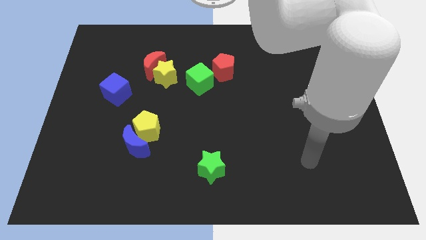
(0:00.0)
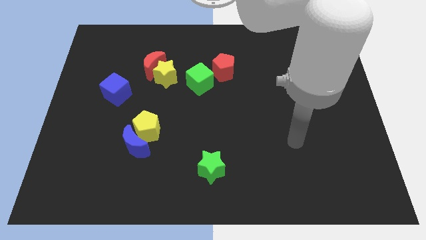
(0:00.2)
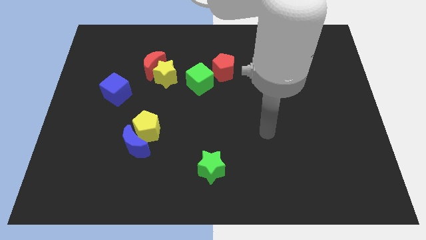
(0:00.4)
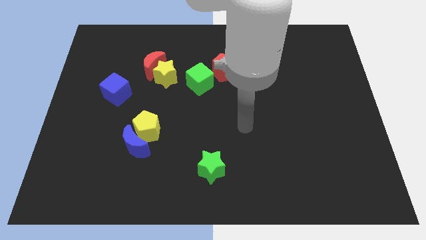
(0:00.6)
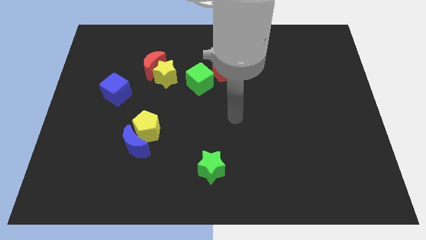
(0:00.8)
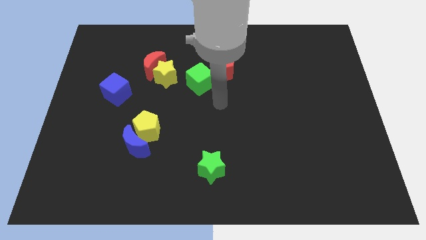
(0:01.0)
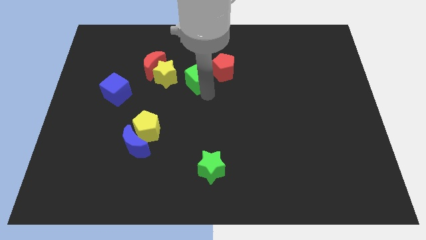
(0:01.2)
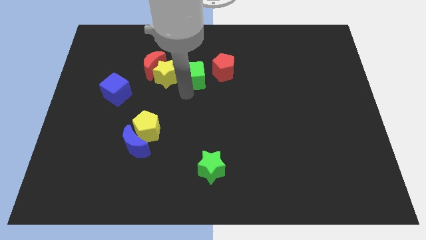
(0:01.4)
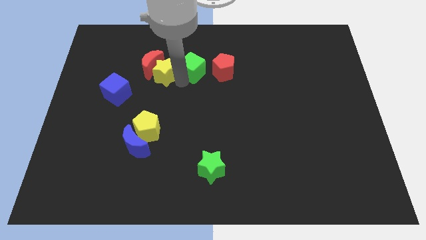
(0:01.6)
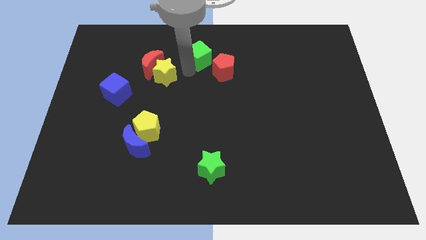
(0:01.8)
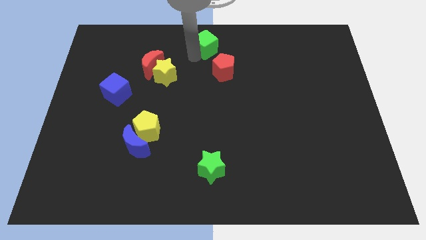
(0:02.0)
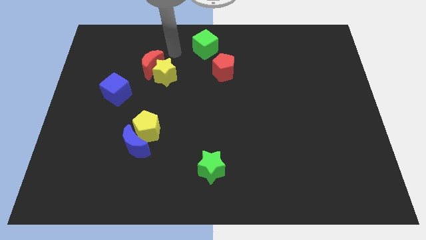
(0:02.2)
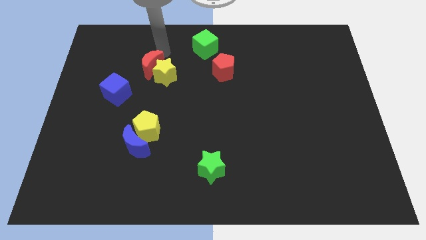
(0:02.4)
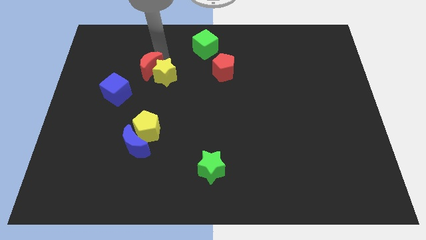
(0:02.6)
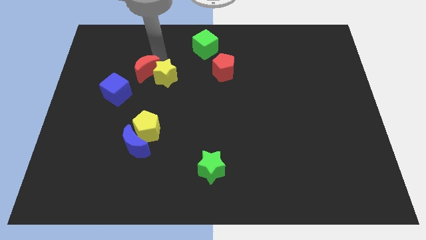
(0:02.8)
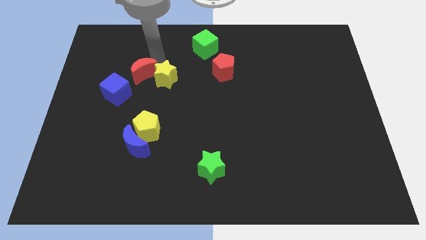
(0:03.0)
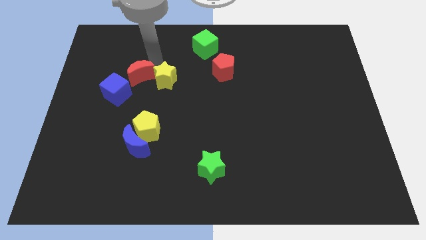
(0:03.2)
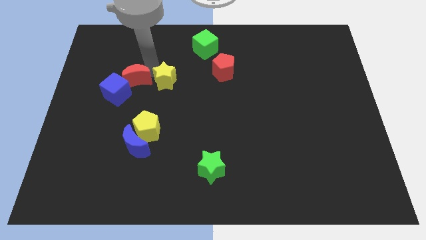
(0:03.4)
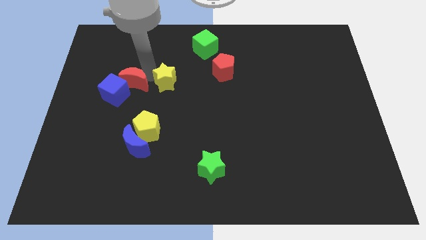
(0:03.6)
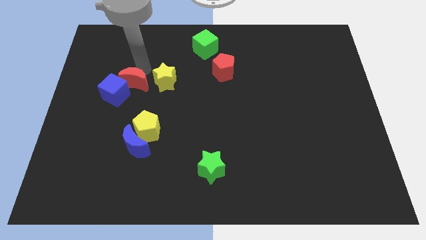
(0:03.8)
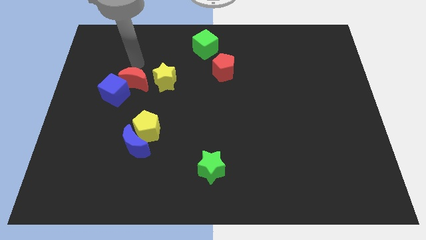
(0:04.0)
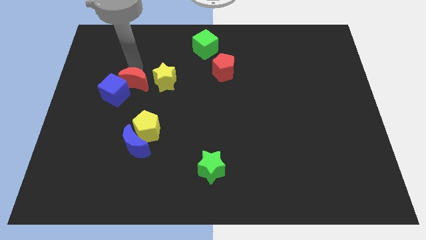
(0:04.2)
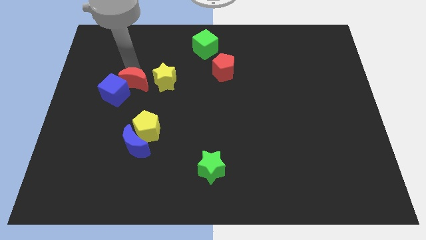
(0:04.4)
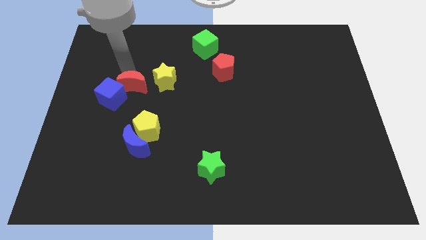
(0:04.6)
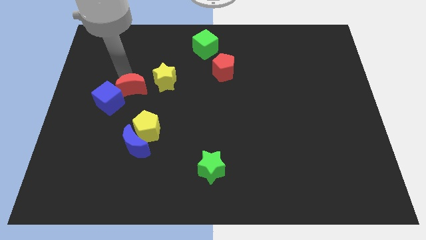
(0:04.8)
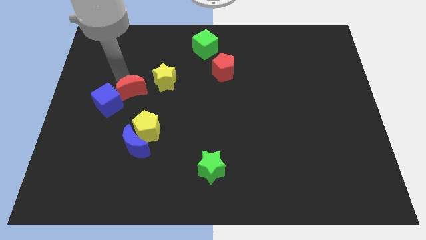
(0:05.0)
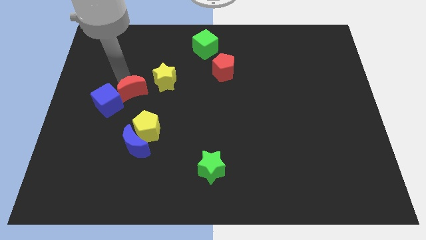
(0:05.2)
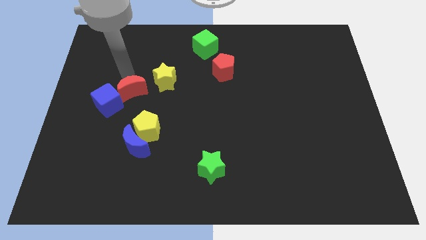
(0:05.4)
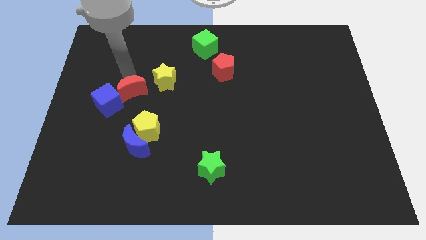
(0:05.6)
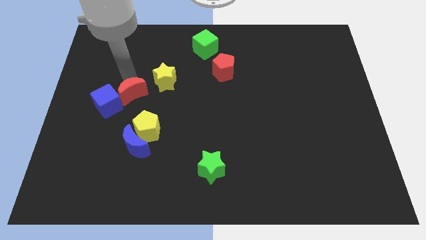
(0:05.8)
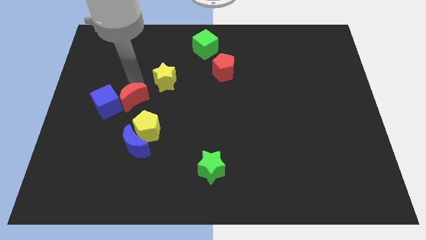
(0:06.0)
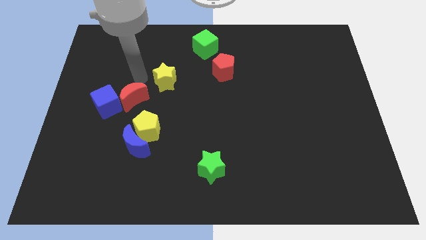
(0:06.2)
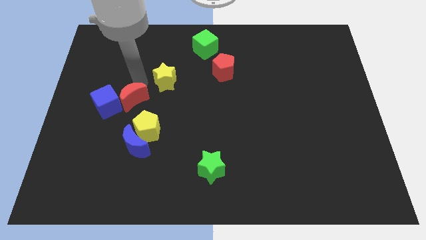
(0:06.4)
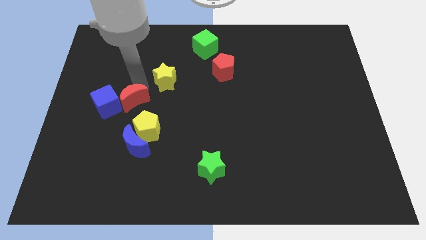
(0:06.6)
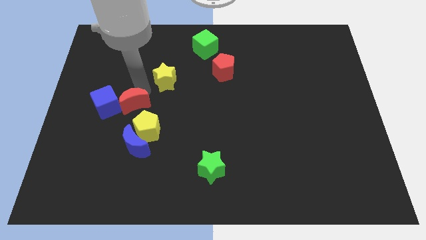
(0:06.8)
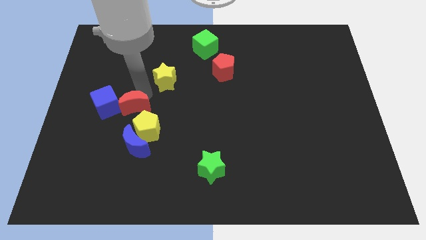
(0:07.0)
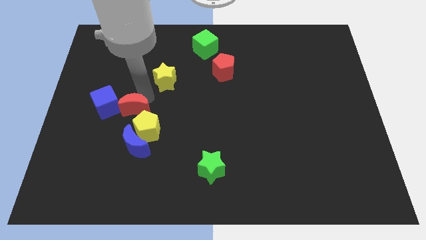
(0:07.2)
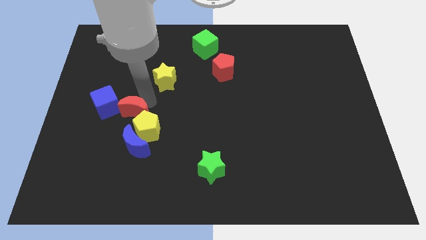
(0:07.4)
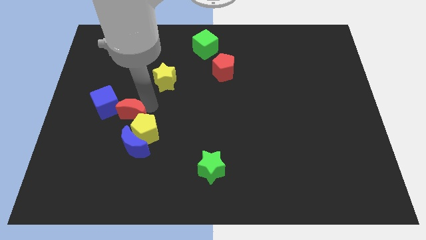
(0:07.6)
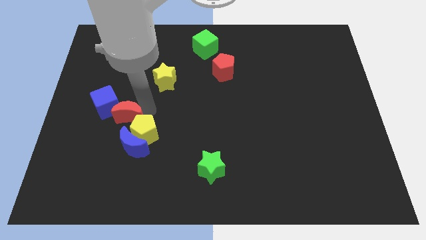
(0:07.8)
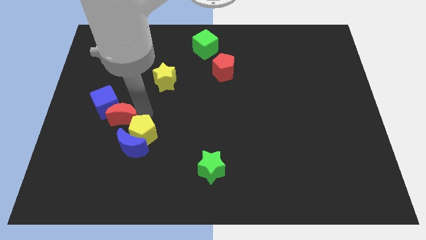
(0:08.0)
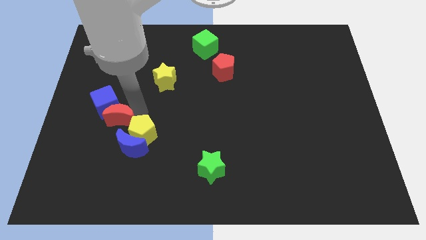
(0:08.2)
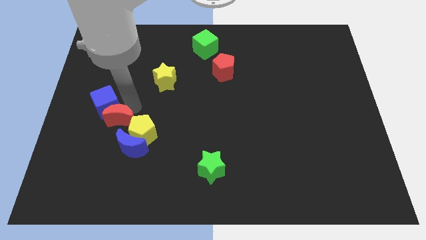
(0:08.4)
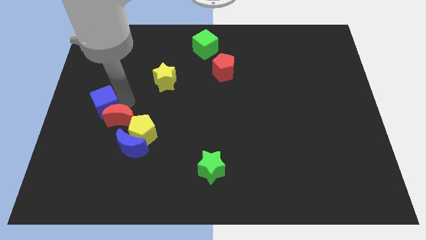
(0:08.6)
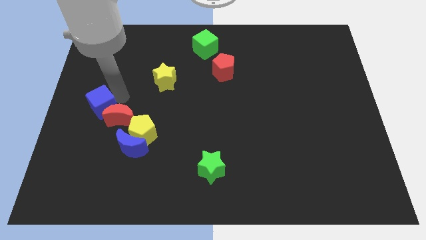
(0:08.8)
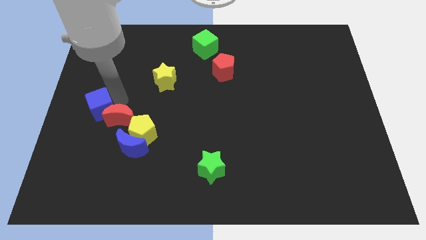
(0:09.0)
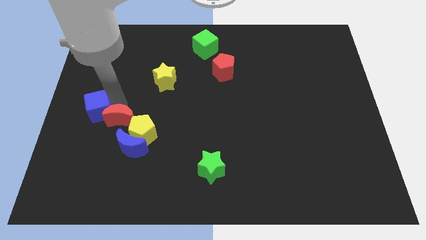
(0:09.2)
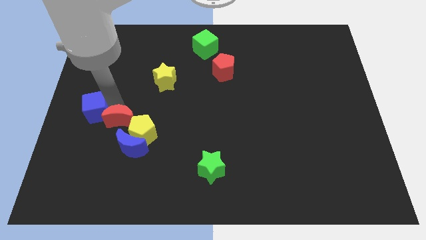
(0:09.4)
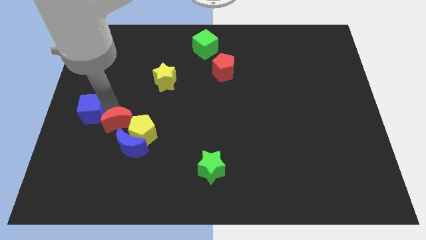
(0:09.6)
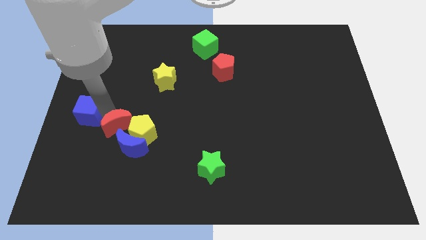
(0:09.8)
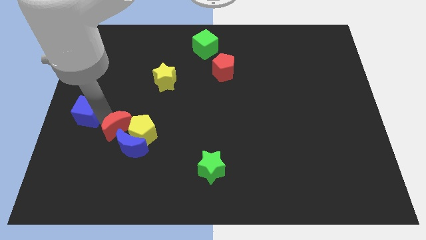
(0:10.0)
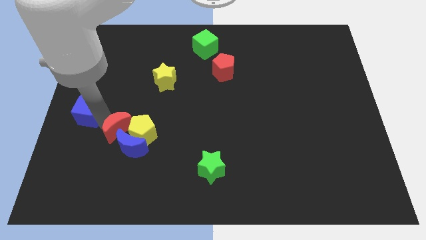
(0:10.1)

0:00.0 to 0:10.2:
push the red moon close to the blue moon

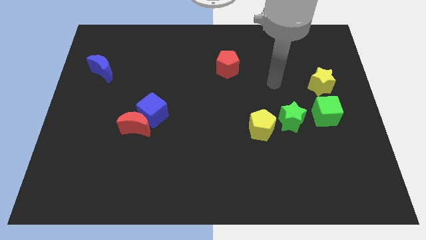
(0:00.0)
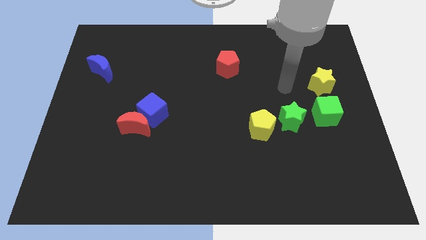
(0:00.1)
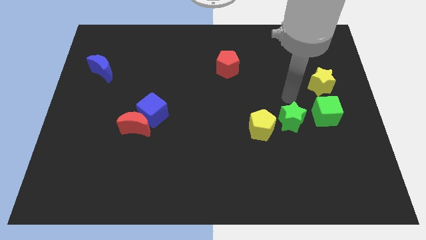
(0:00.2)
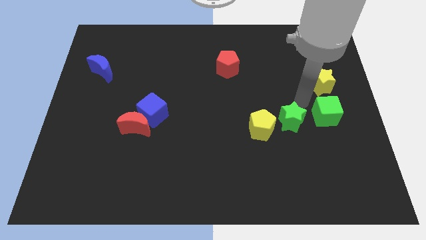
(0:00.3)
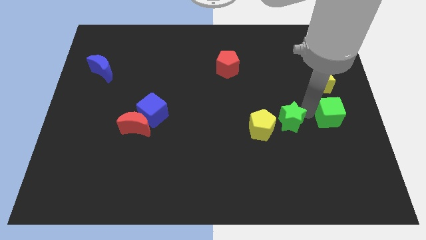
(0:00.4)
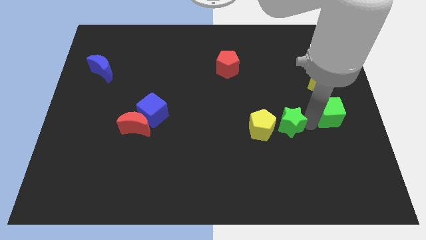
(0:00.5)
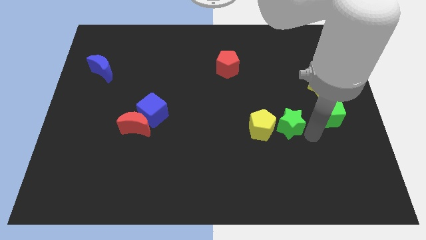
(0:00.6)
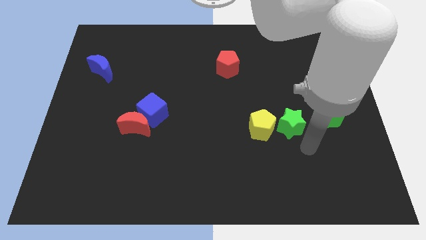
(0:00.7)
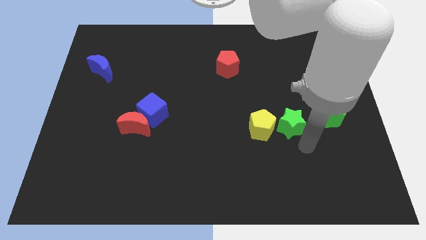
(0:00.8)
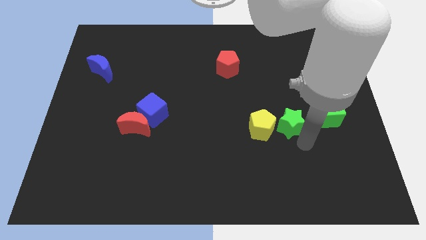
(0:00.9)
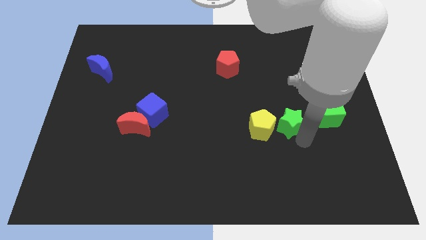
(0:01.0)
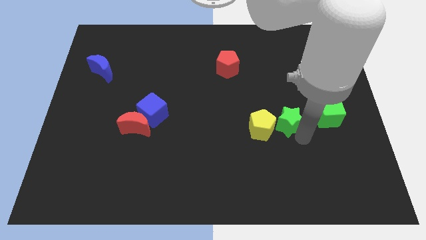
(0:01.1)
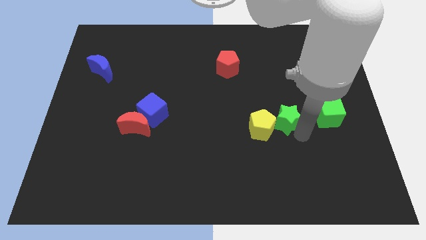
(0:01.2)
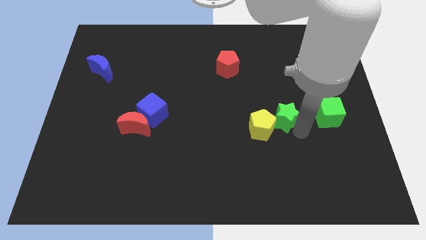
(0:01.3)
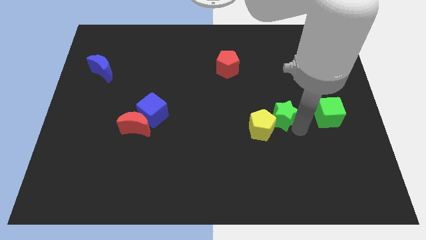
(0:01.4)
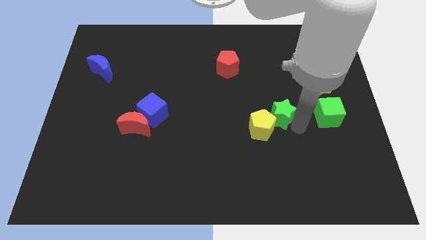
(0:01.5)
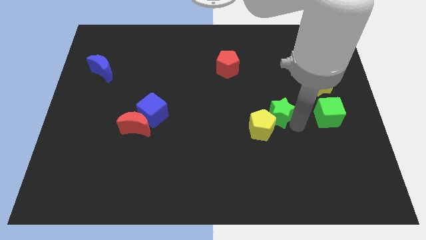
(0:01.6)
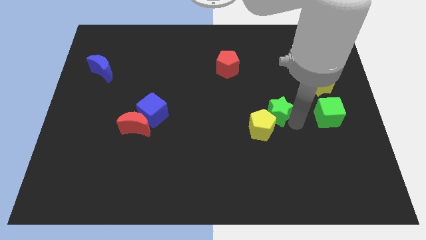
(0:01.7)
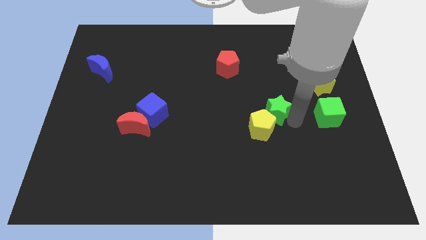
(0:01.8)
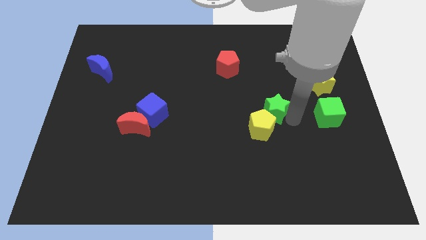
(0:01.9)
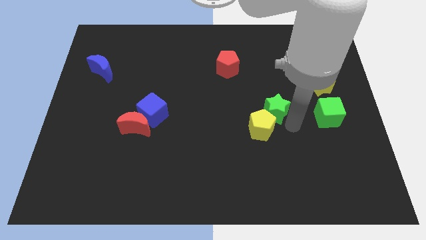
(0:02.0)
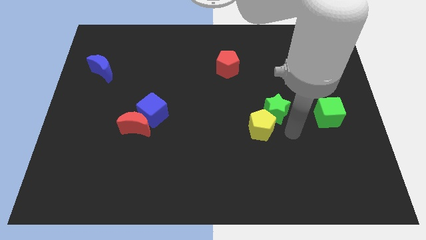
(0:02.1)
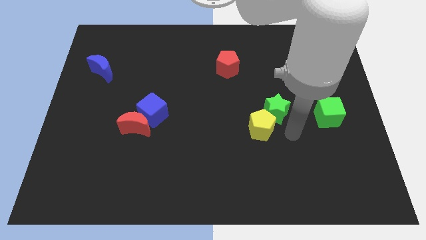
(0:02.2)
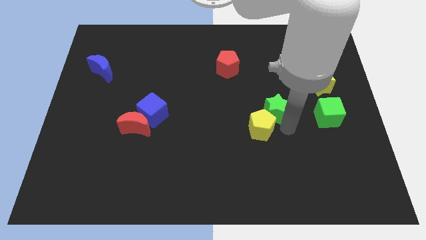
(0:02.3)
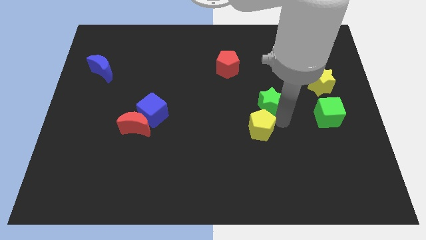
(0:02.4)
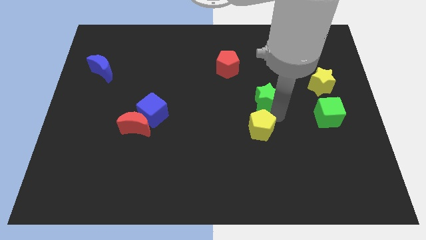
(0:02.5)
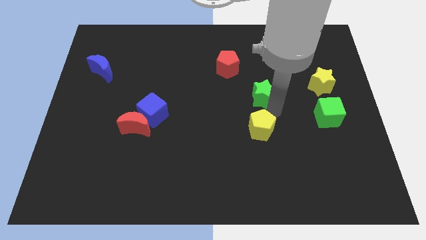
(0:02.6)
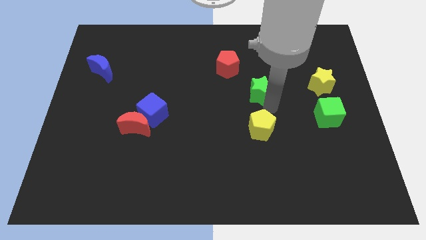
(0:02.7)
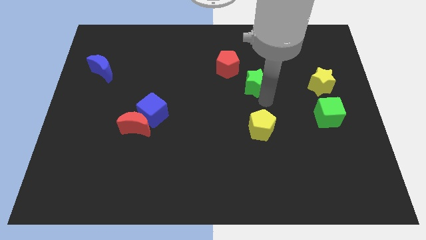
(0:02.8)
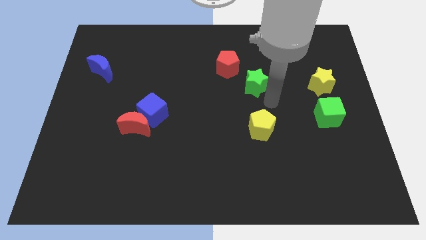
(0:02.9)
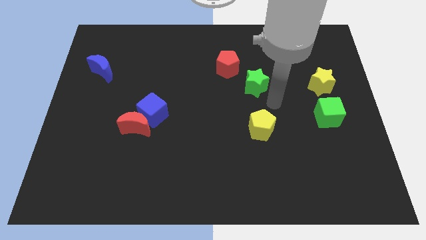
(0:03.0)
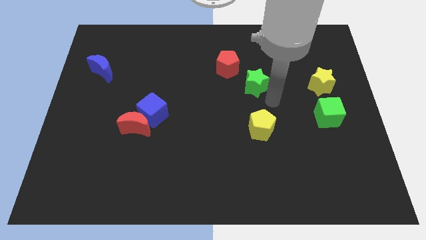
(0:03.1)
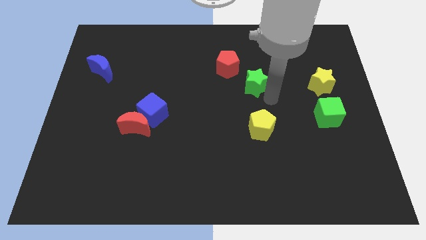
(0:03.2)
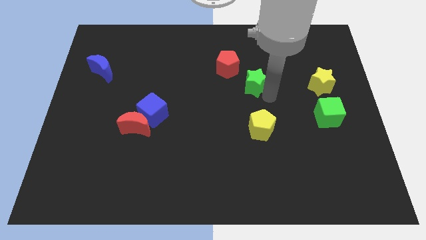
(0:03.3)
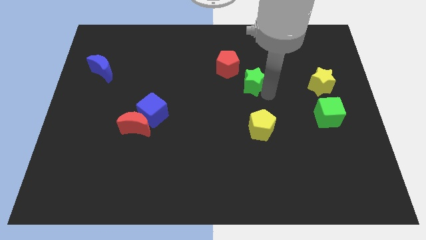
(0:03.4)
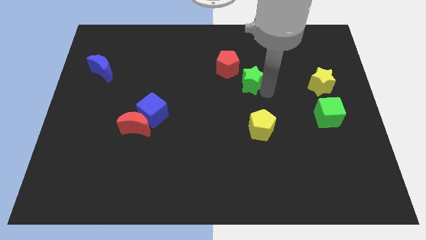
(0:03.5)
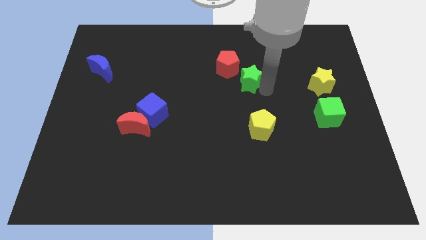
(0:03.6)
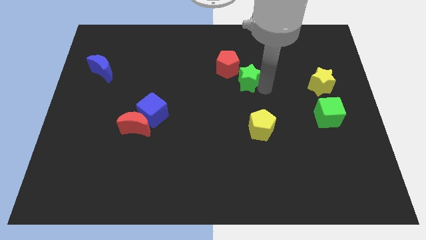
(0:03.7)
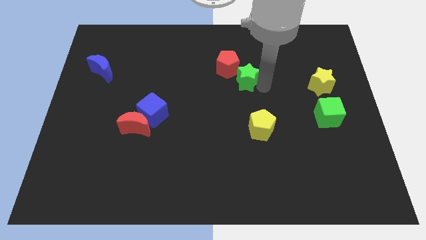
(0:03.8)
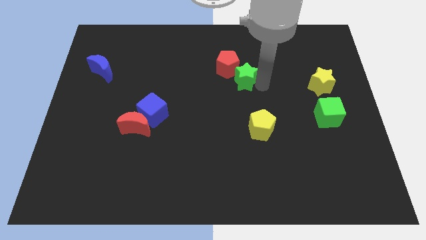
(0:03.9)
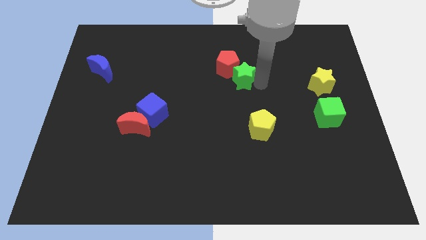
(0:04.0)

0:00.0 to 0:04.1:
slide the green star to the red pentagon
